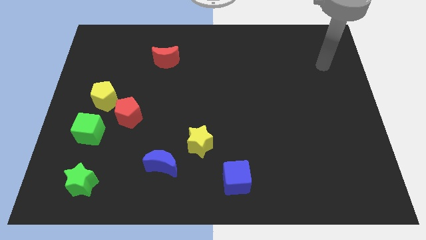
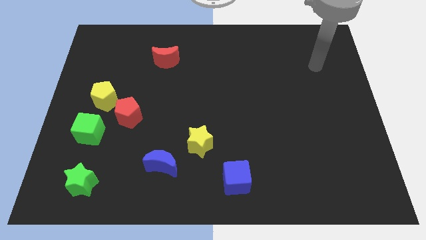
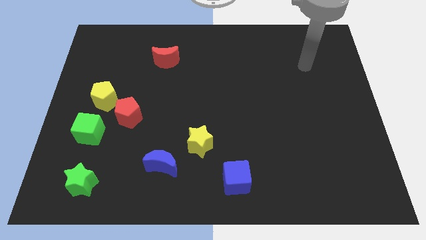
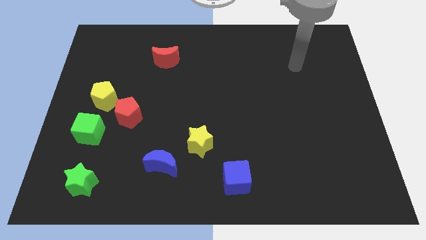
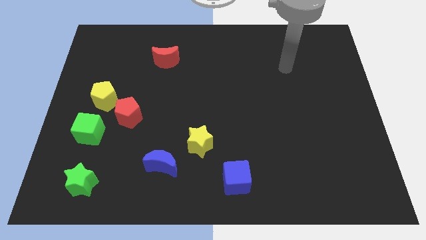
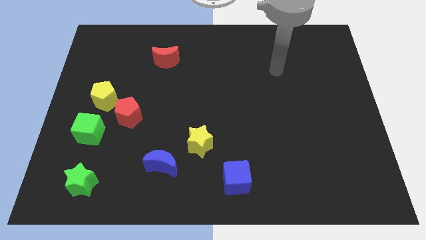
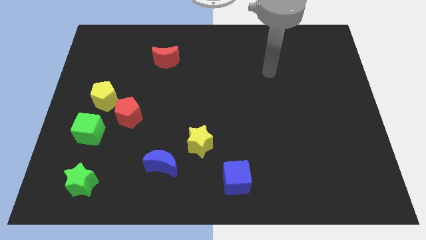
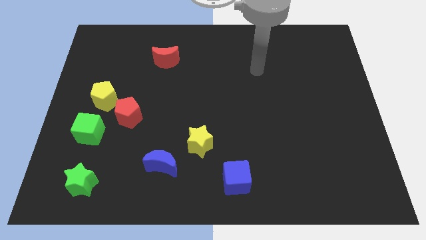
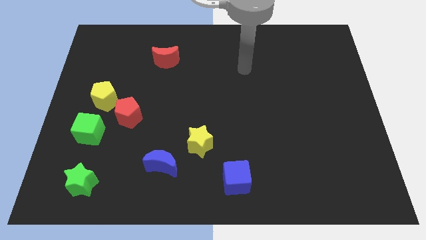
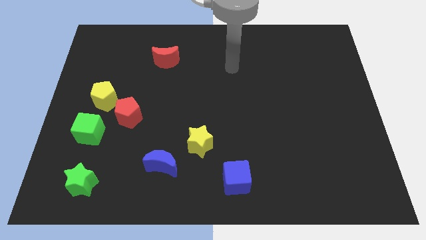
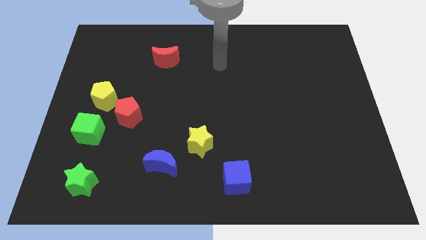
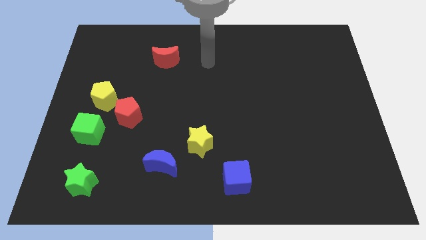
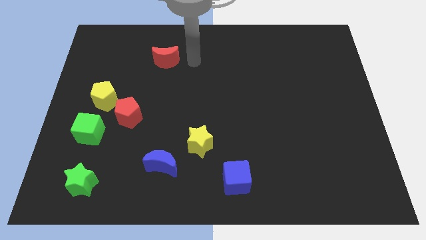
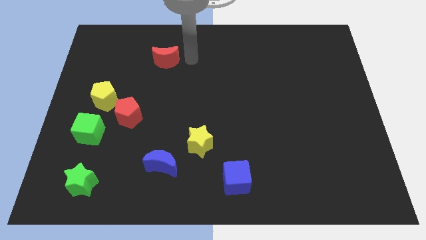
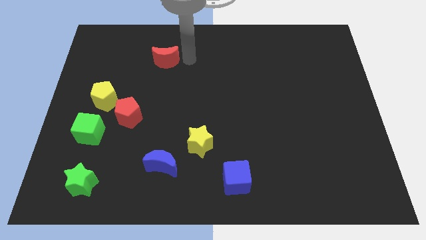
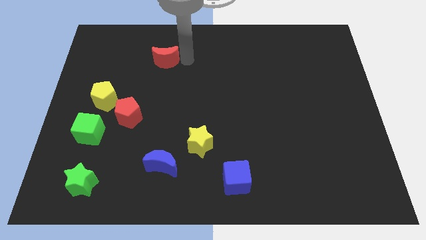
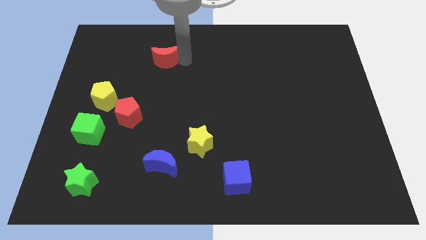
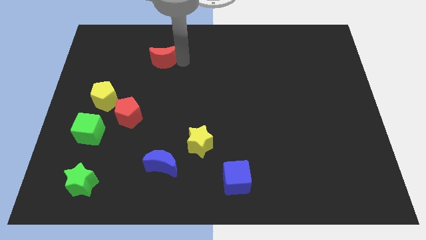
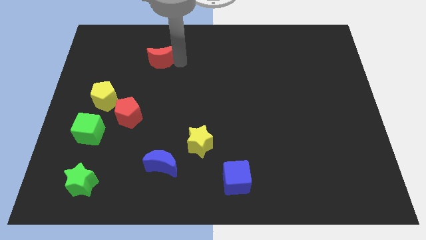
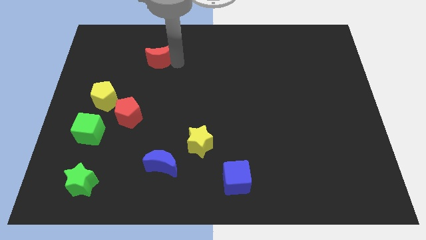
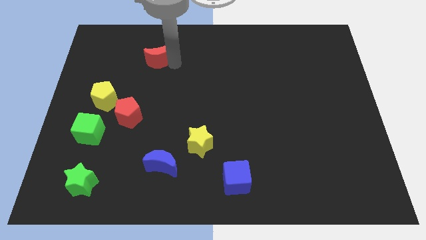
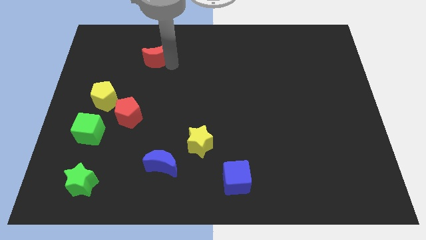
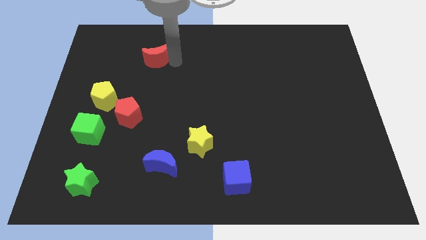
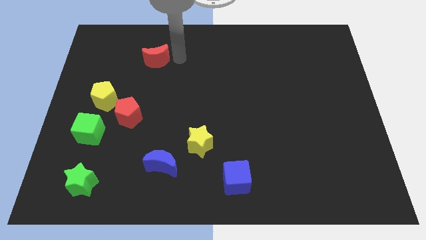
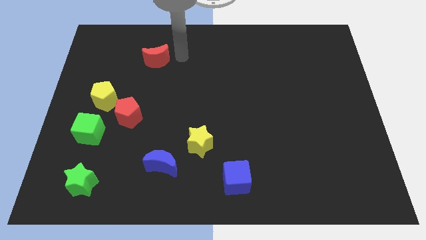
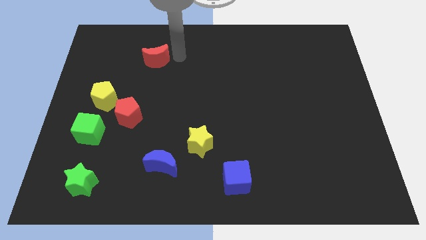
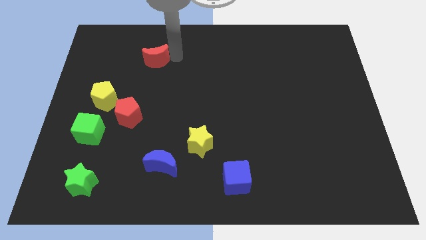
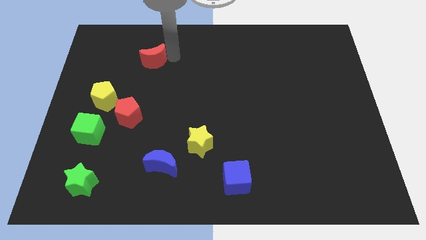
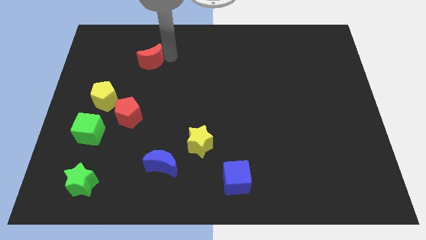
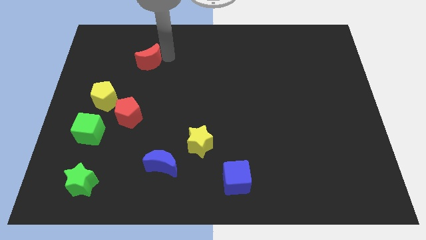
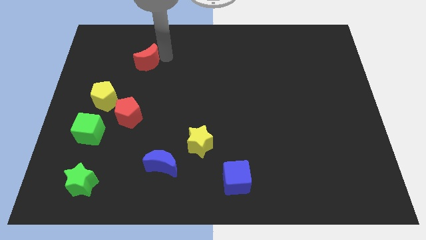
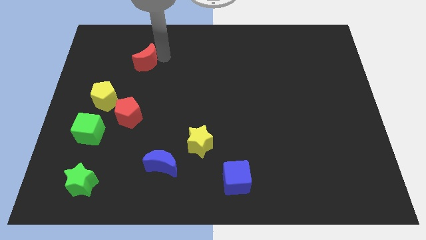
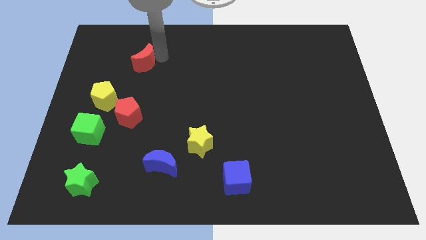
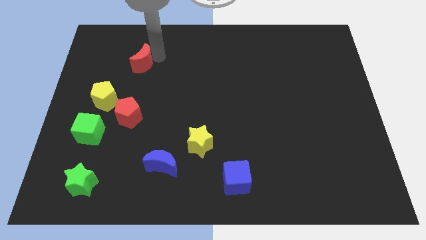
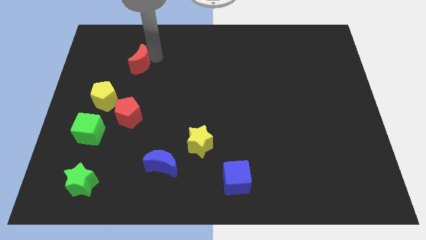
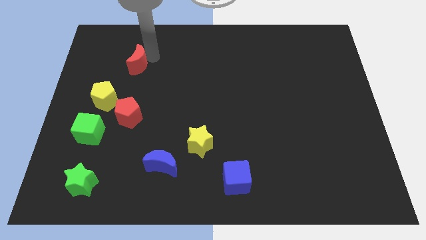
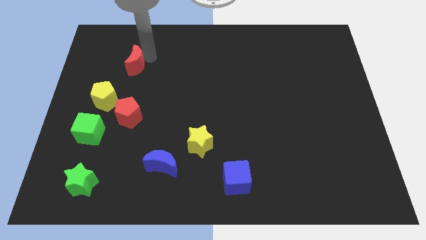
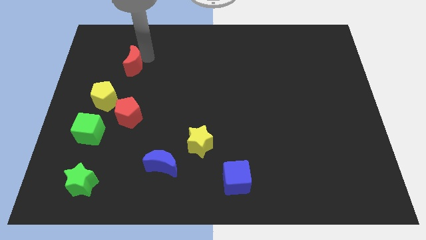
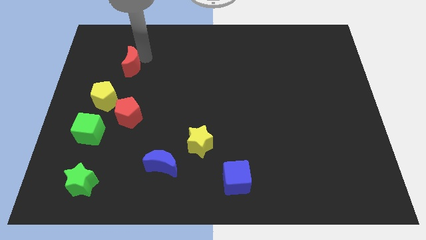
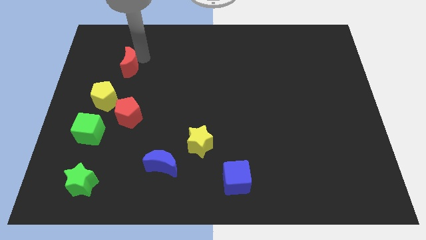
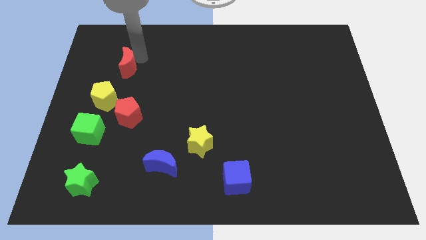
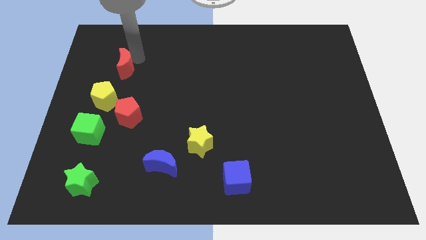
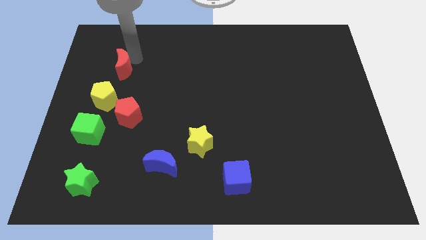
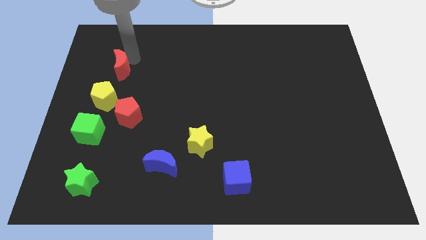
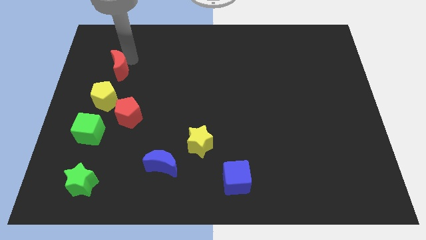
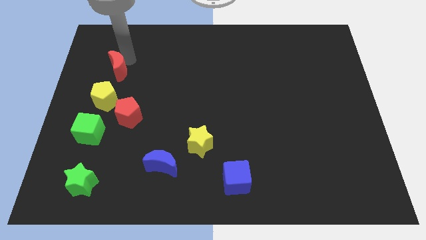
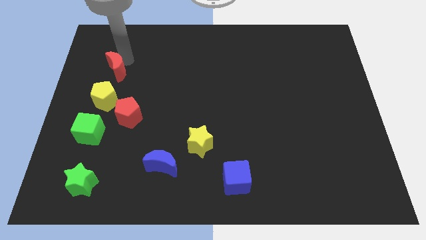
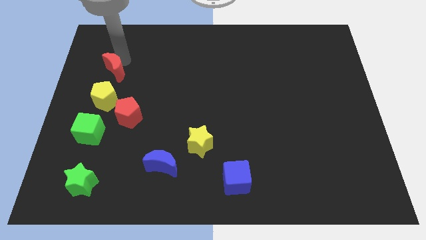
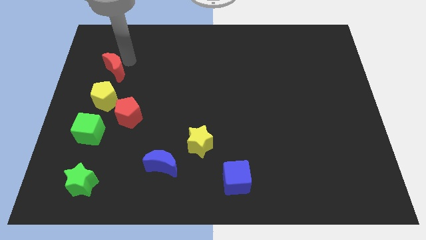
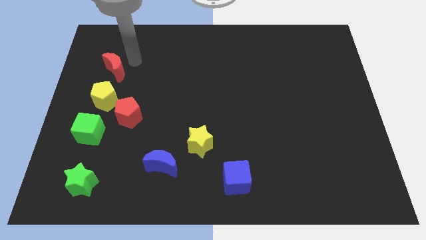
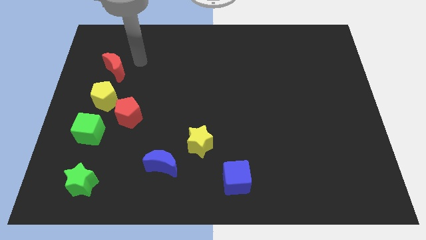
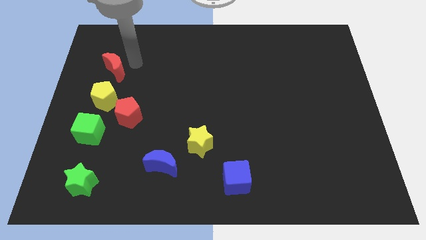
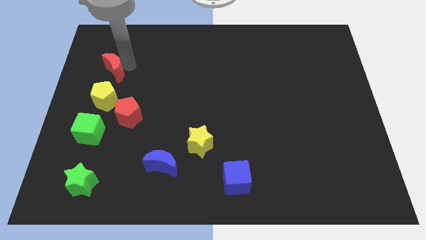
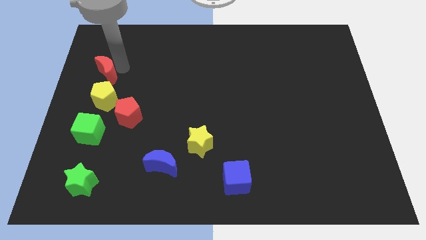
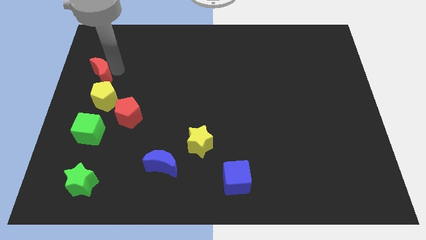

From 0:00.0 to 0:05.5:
move the red moon to the left side
